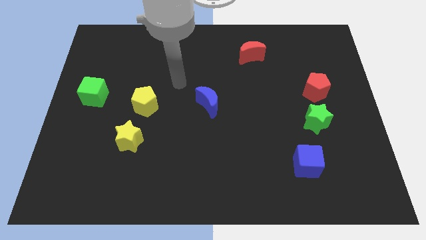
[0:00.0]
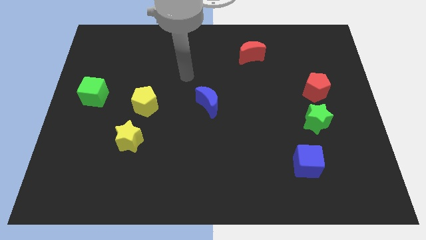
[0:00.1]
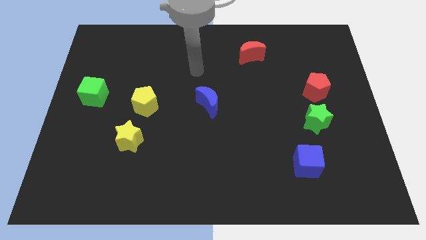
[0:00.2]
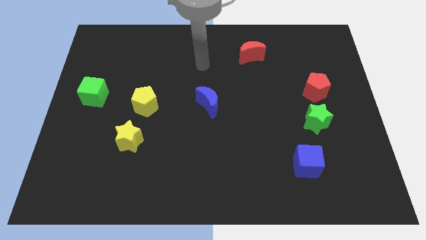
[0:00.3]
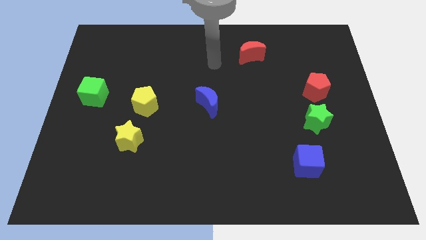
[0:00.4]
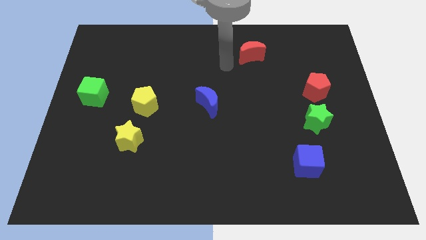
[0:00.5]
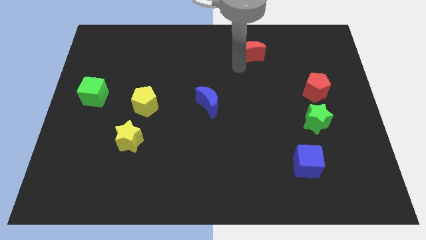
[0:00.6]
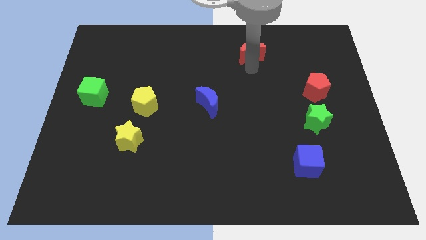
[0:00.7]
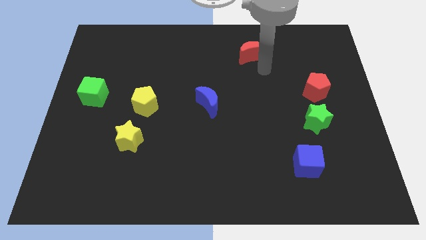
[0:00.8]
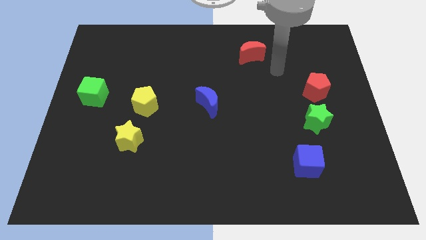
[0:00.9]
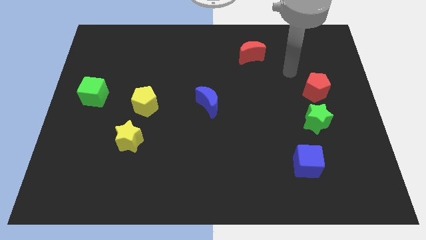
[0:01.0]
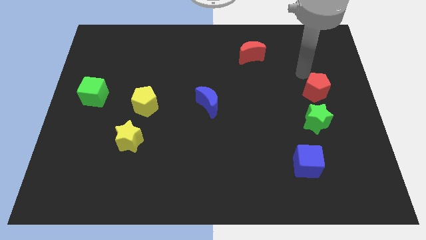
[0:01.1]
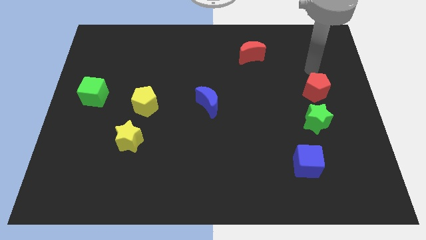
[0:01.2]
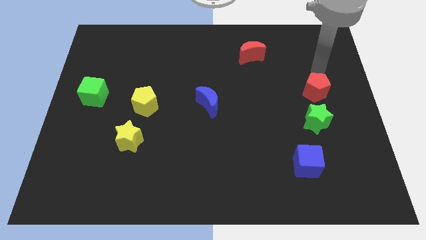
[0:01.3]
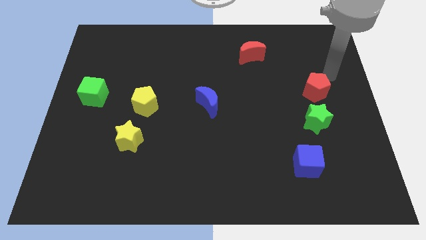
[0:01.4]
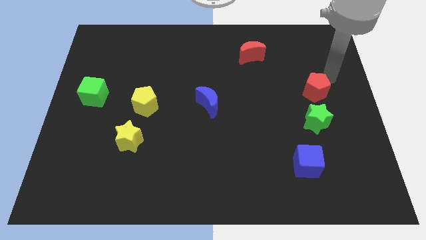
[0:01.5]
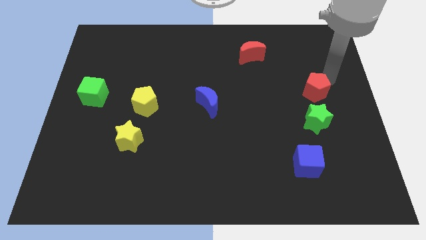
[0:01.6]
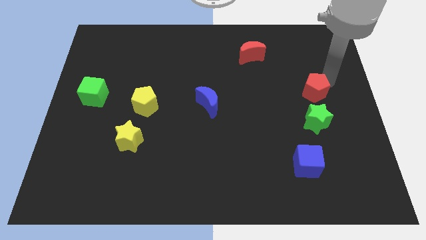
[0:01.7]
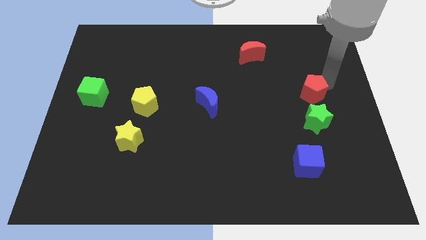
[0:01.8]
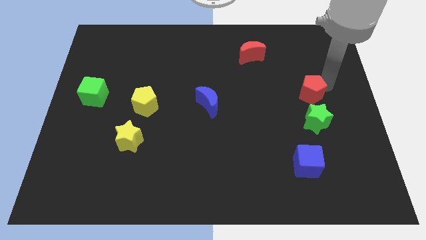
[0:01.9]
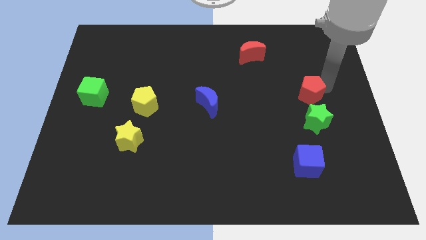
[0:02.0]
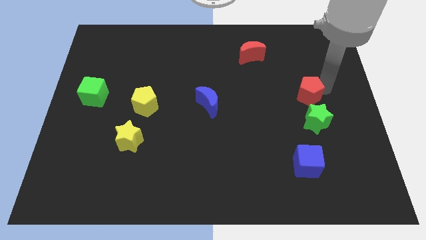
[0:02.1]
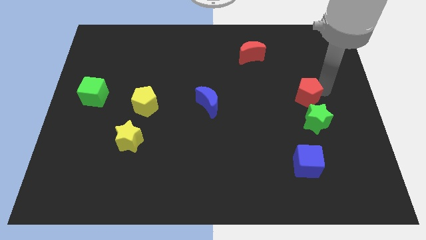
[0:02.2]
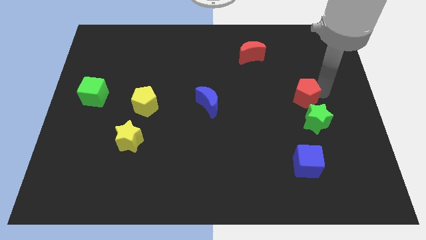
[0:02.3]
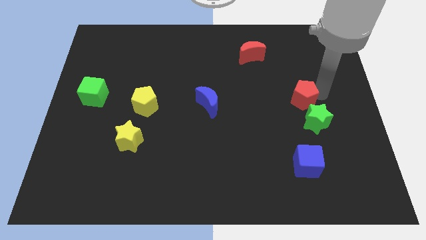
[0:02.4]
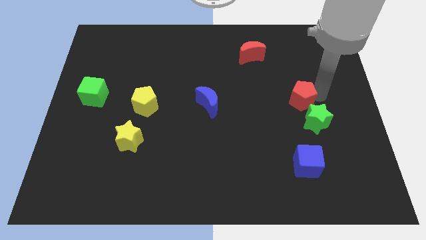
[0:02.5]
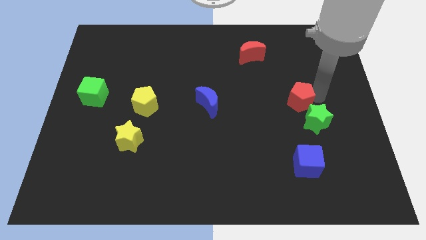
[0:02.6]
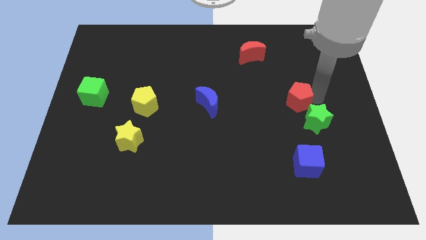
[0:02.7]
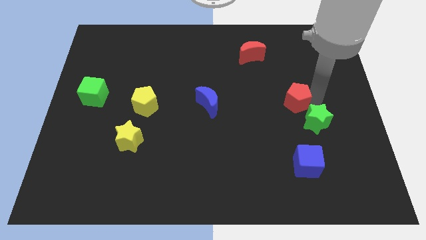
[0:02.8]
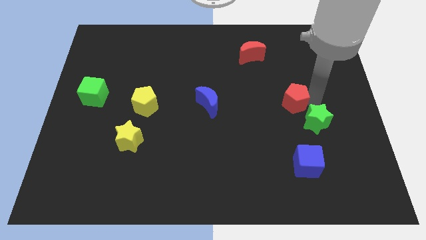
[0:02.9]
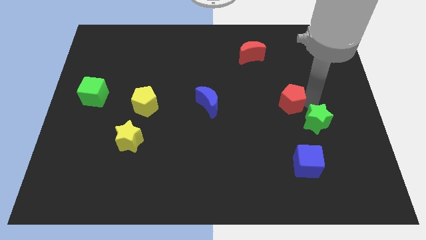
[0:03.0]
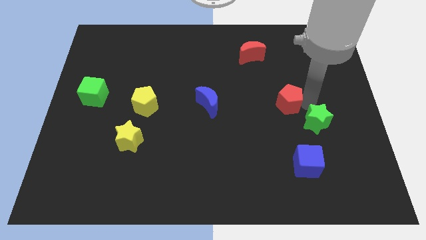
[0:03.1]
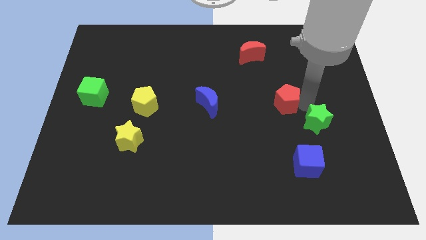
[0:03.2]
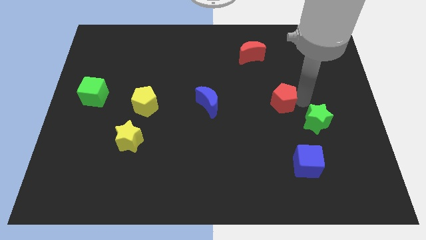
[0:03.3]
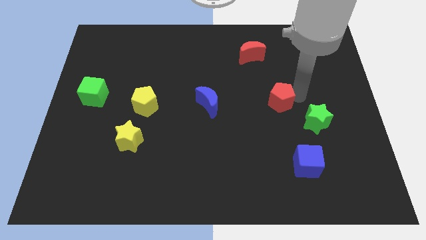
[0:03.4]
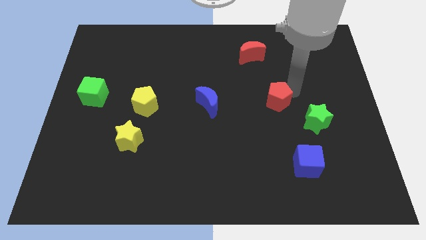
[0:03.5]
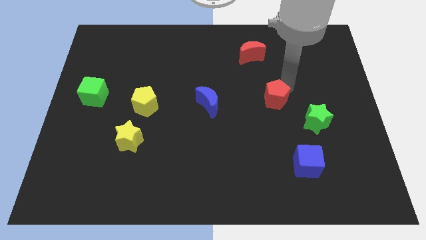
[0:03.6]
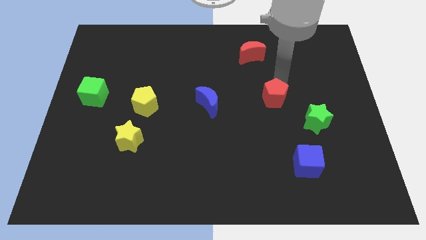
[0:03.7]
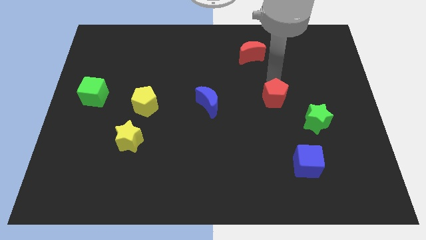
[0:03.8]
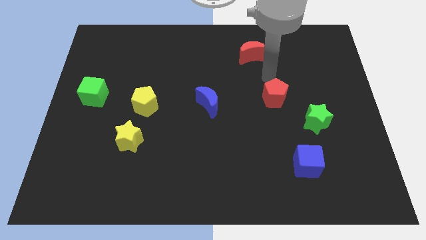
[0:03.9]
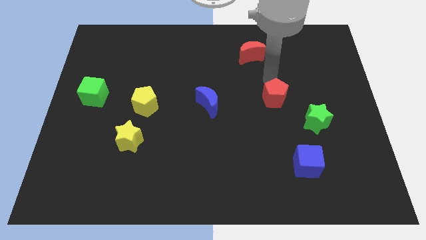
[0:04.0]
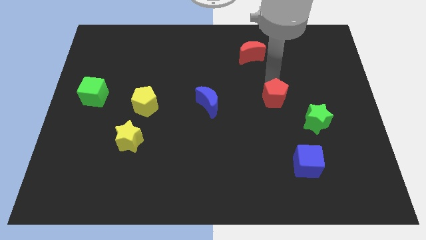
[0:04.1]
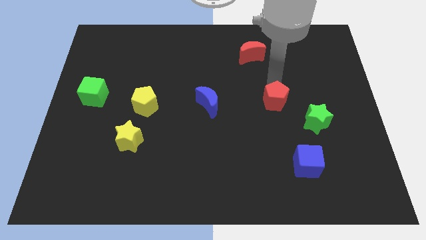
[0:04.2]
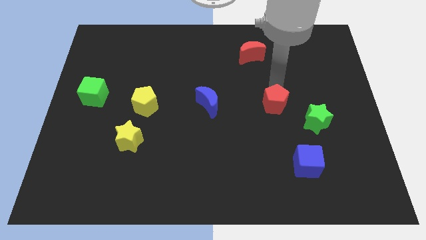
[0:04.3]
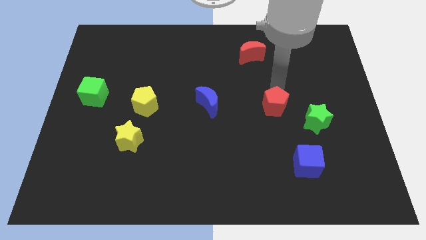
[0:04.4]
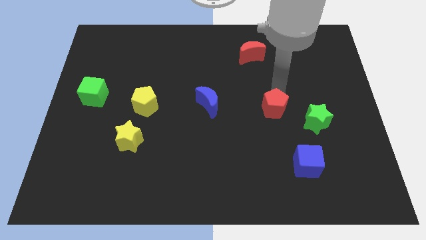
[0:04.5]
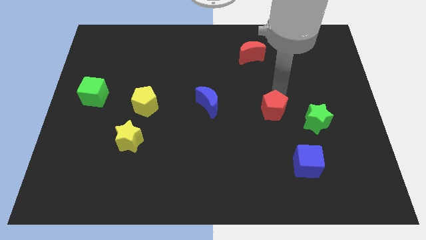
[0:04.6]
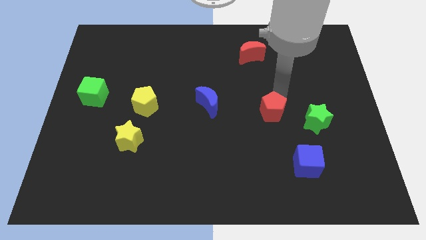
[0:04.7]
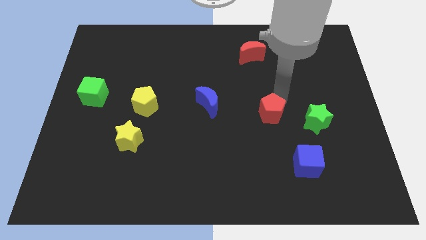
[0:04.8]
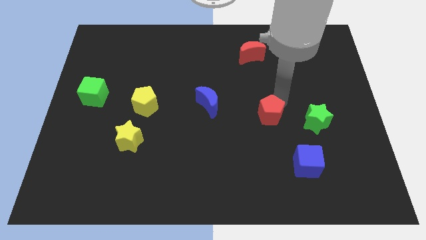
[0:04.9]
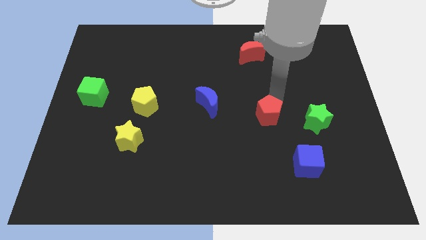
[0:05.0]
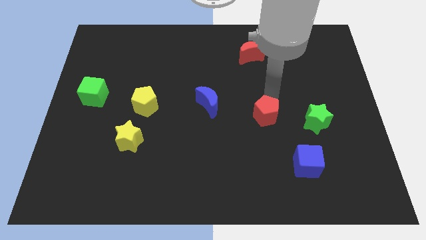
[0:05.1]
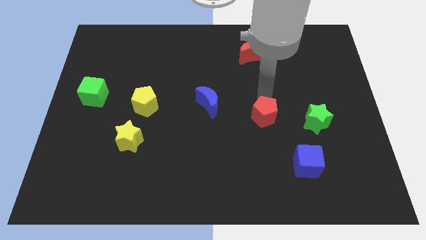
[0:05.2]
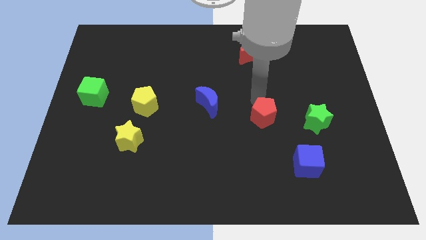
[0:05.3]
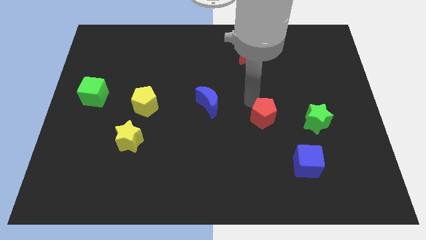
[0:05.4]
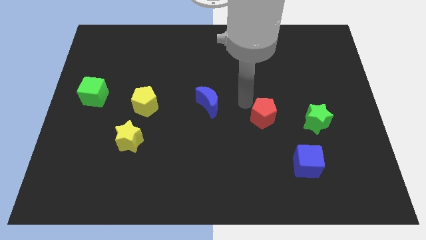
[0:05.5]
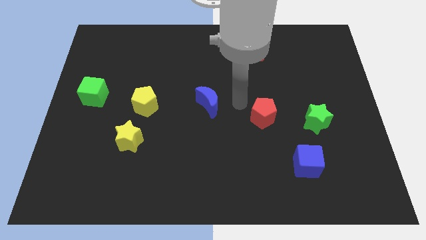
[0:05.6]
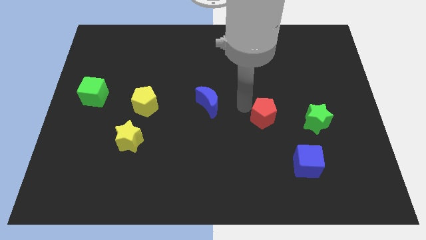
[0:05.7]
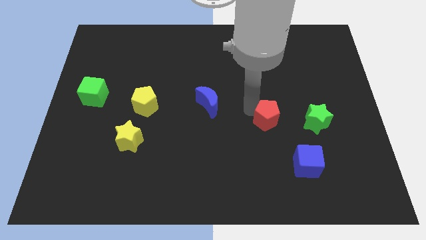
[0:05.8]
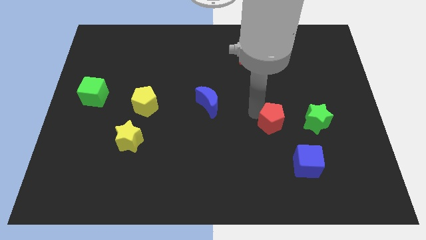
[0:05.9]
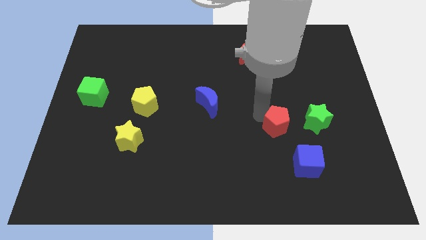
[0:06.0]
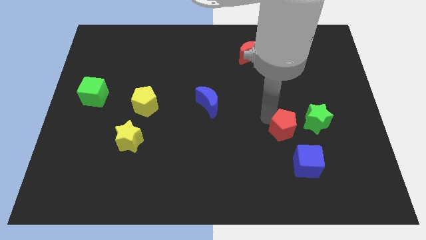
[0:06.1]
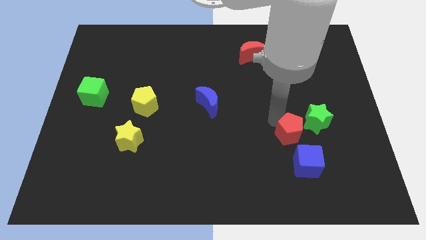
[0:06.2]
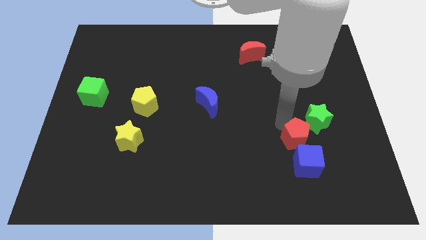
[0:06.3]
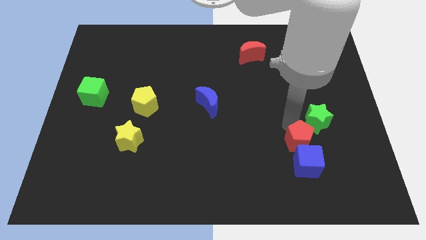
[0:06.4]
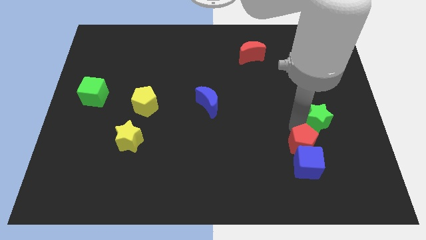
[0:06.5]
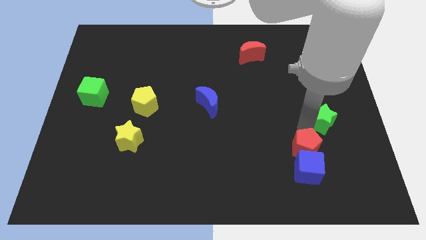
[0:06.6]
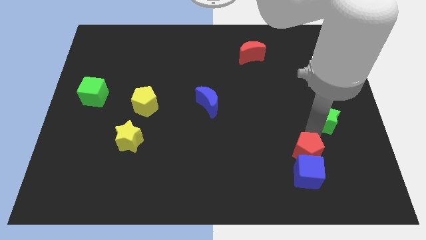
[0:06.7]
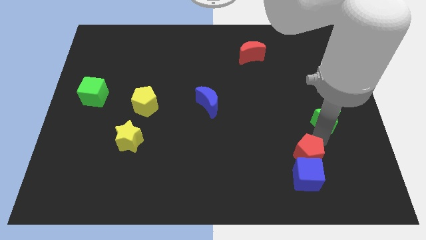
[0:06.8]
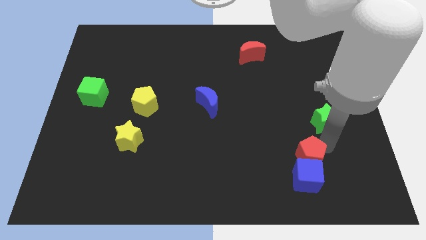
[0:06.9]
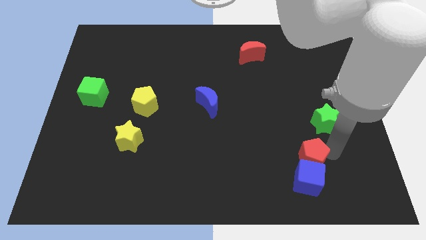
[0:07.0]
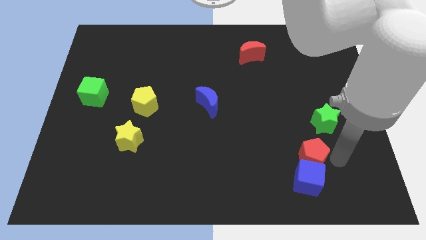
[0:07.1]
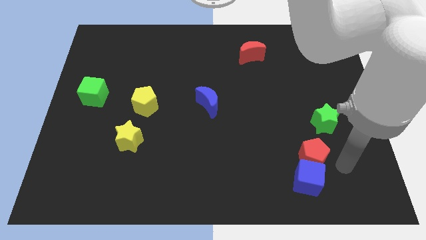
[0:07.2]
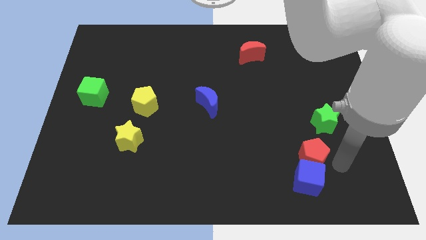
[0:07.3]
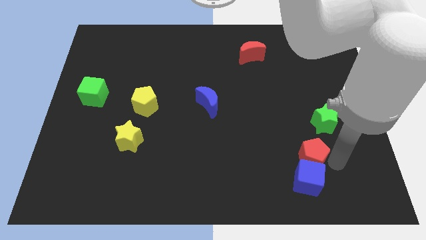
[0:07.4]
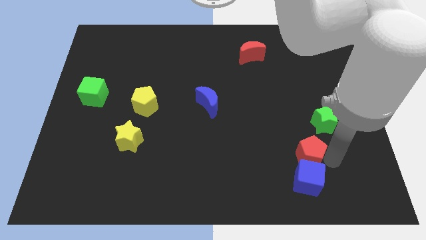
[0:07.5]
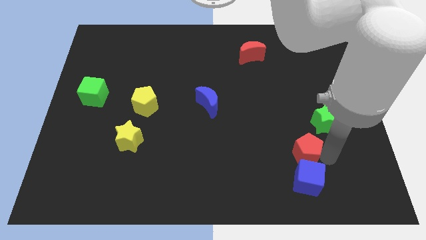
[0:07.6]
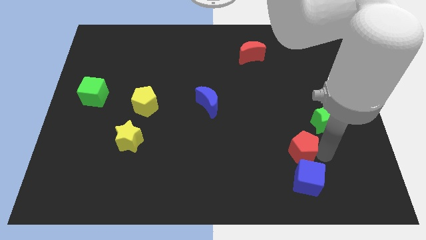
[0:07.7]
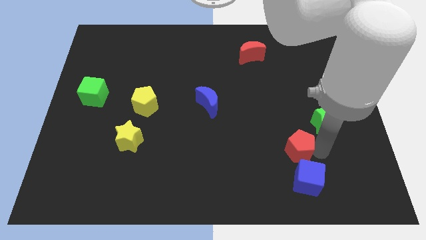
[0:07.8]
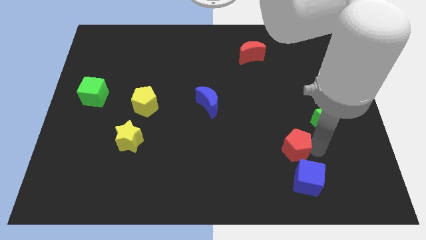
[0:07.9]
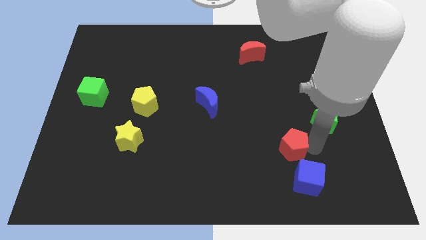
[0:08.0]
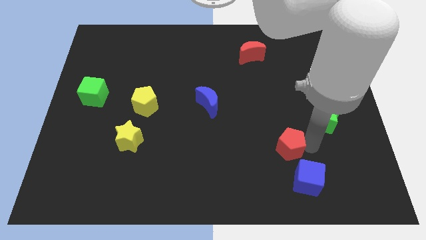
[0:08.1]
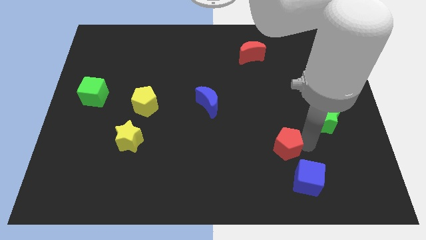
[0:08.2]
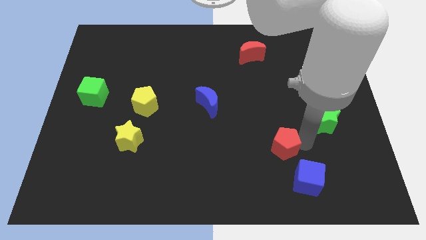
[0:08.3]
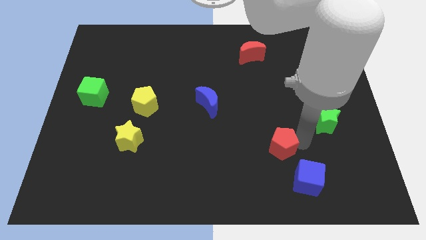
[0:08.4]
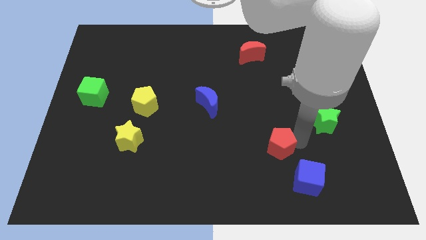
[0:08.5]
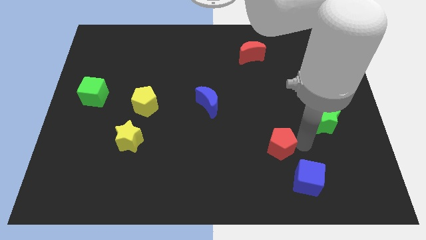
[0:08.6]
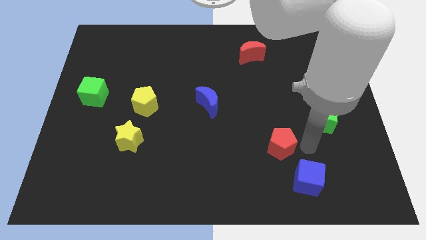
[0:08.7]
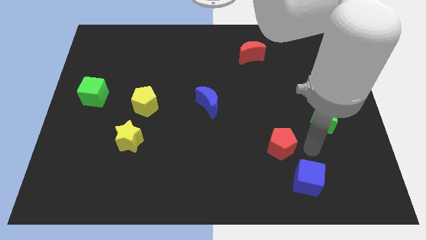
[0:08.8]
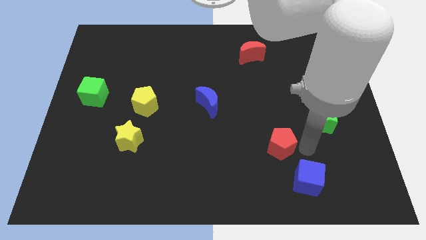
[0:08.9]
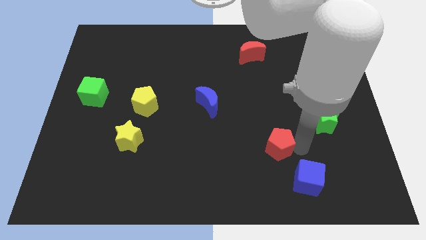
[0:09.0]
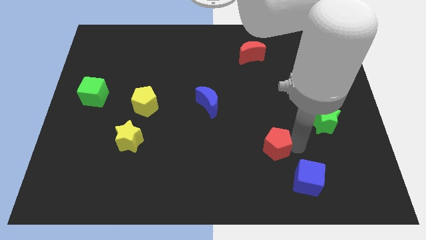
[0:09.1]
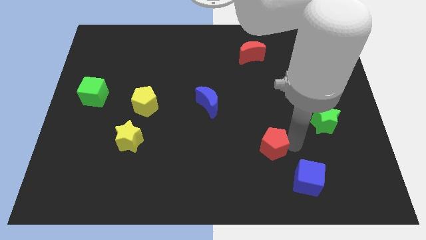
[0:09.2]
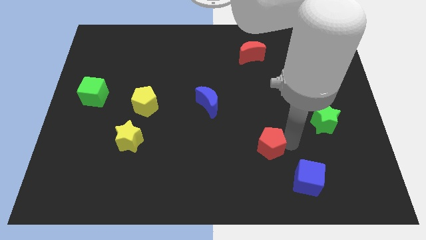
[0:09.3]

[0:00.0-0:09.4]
slide the red pentagon down and then to the left
